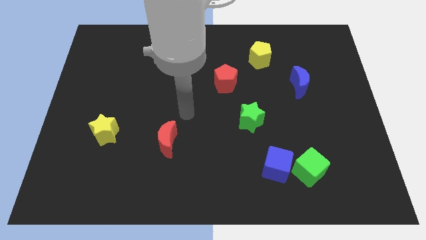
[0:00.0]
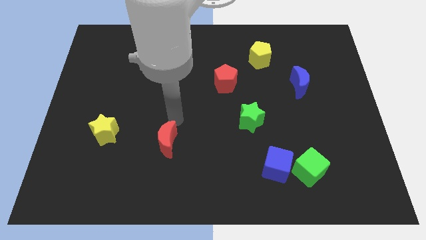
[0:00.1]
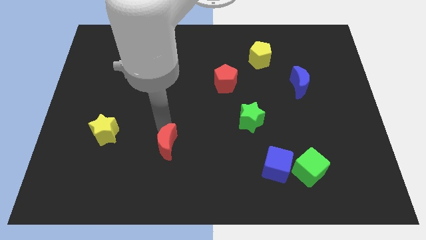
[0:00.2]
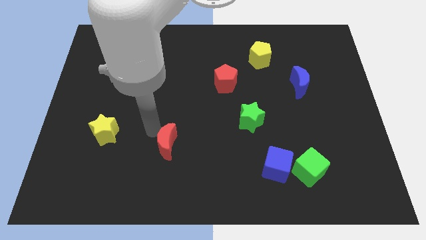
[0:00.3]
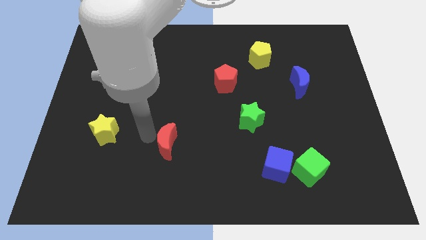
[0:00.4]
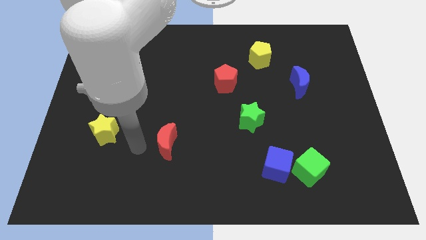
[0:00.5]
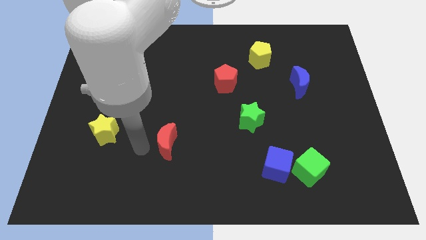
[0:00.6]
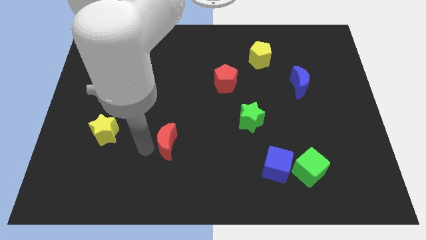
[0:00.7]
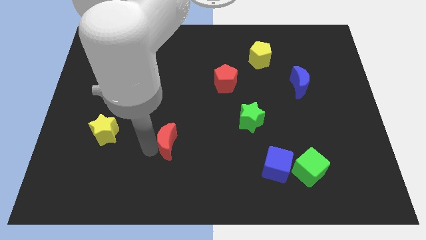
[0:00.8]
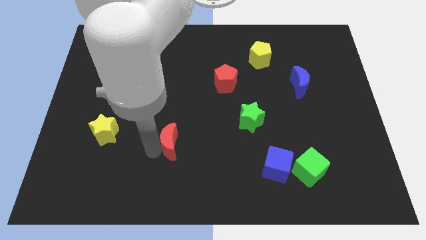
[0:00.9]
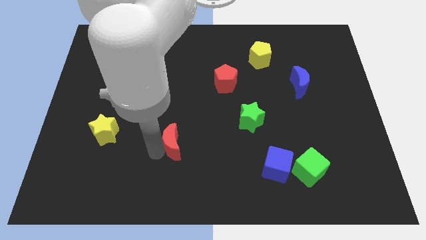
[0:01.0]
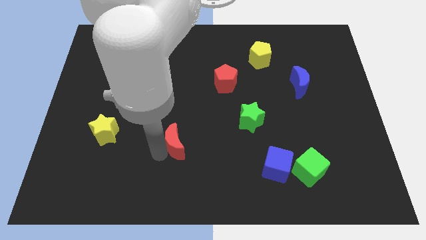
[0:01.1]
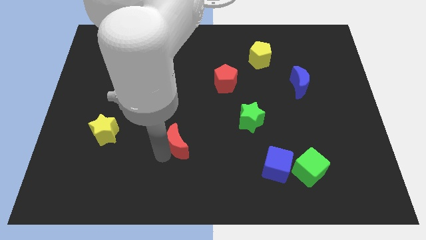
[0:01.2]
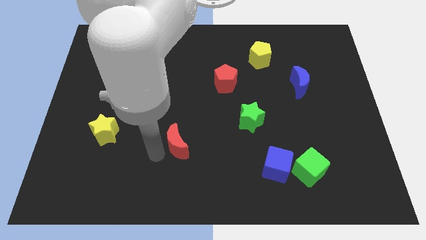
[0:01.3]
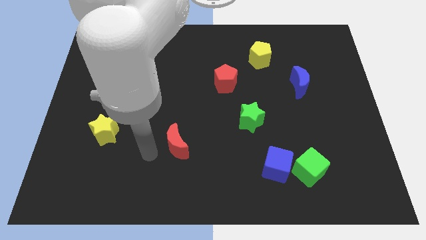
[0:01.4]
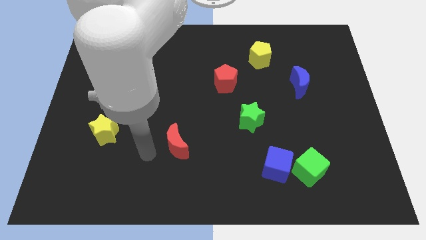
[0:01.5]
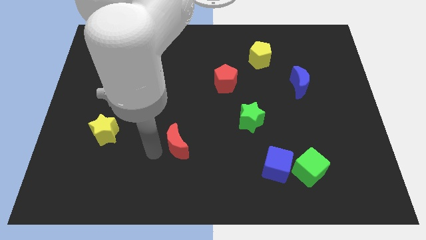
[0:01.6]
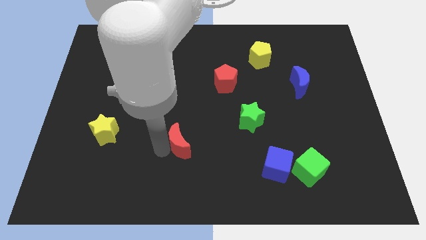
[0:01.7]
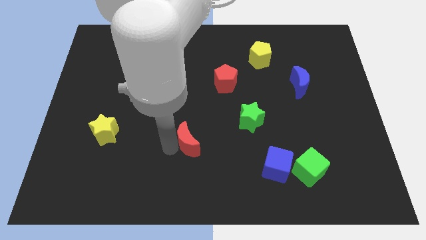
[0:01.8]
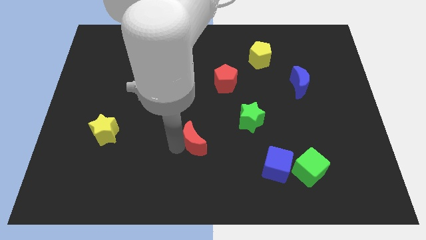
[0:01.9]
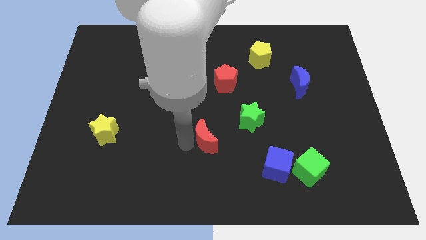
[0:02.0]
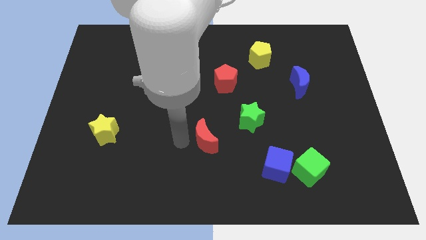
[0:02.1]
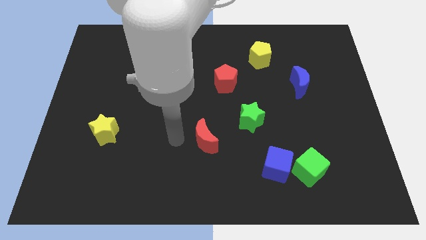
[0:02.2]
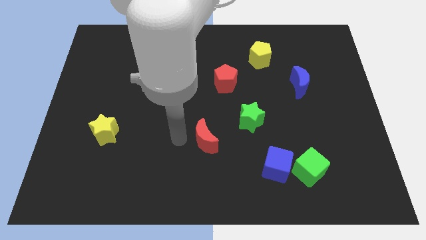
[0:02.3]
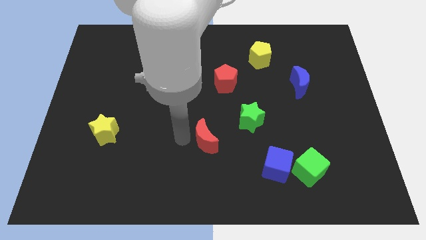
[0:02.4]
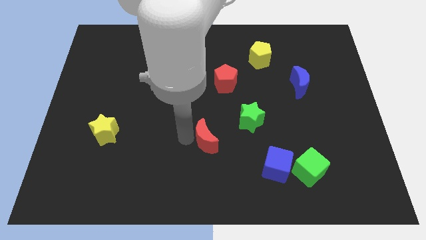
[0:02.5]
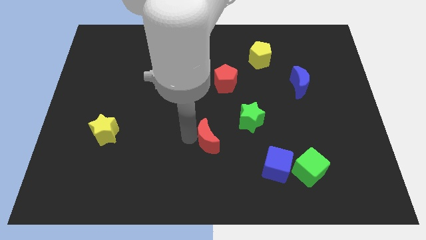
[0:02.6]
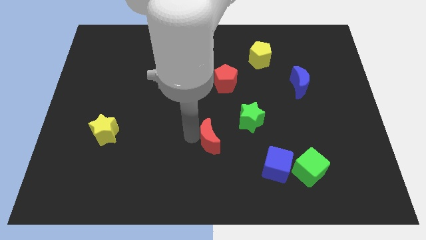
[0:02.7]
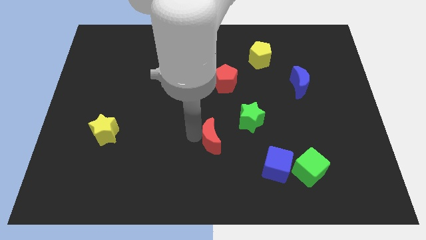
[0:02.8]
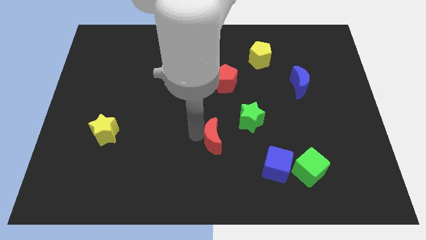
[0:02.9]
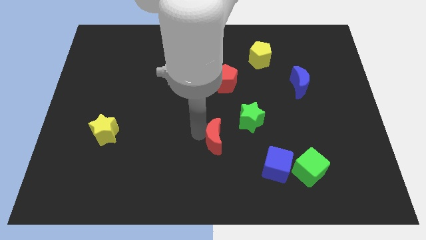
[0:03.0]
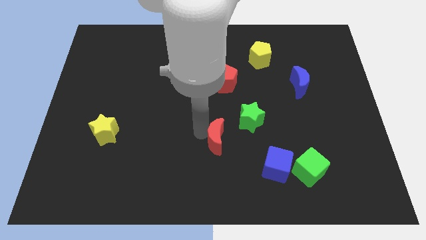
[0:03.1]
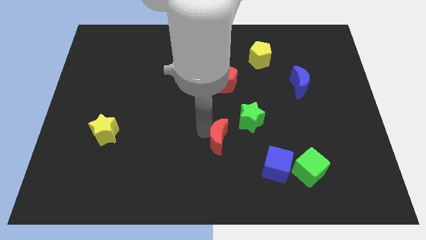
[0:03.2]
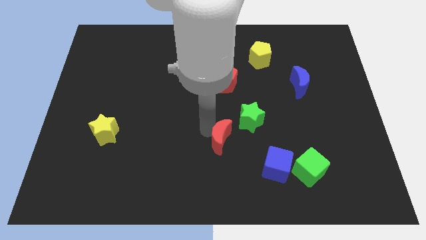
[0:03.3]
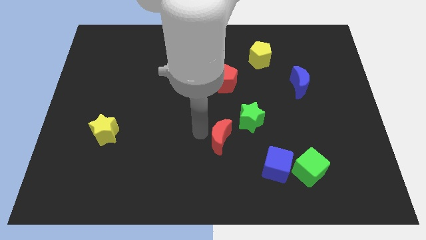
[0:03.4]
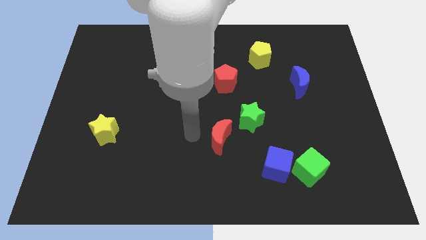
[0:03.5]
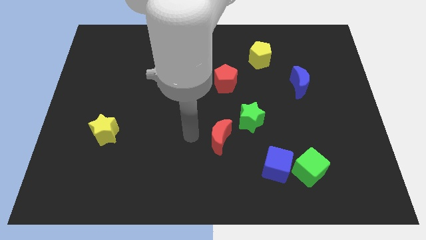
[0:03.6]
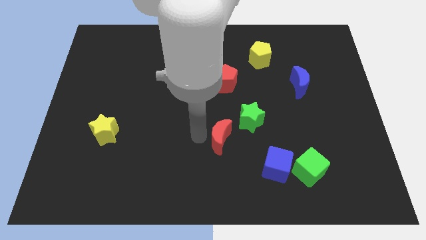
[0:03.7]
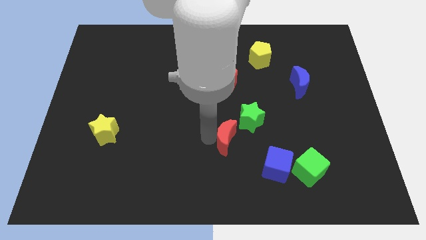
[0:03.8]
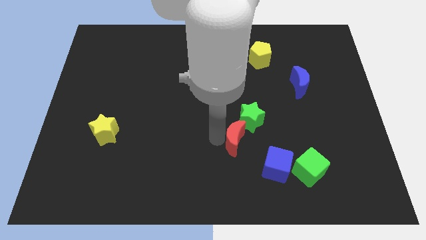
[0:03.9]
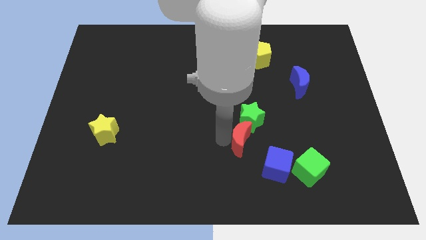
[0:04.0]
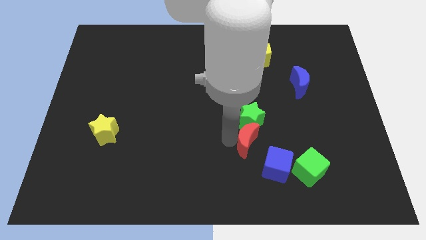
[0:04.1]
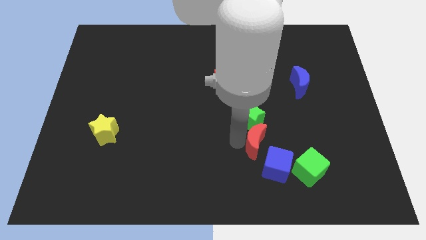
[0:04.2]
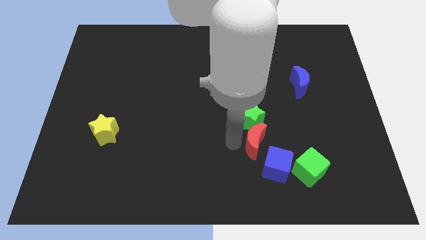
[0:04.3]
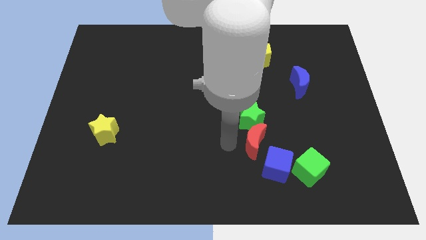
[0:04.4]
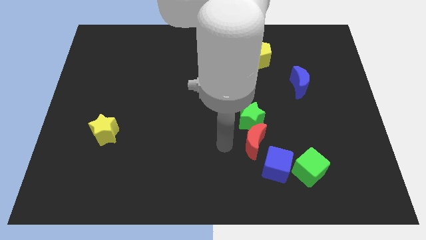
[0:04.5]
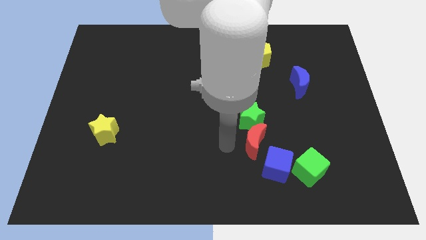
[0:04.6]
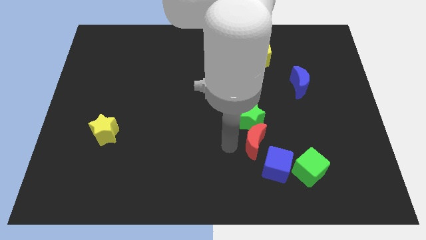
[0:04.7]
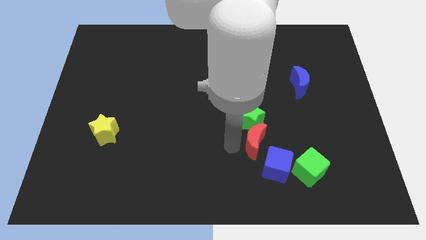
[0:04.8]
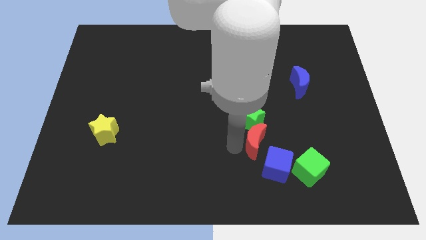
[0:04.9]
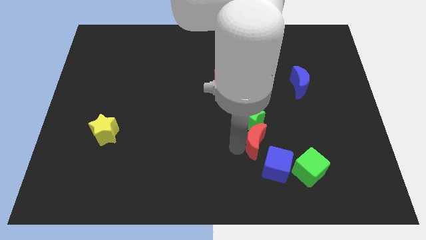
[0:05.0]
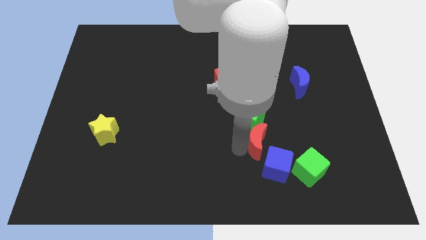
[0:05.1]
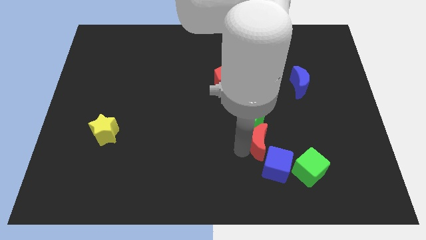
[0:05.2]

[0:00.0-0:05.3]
push the red moon right

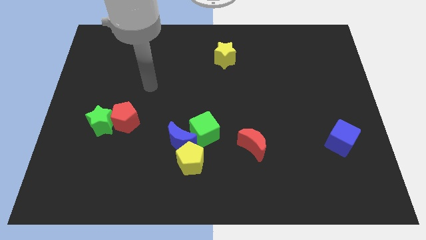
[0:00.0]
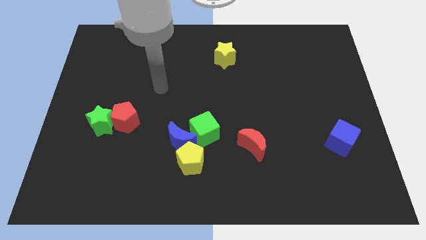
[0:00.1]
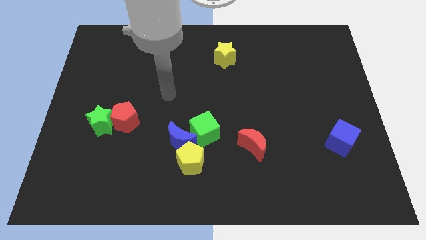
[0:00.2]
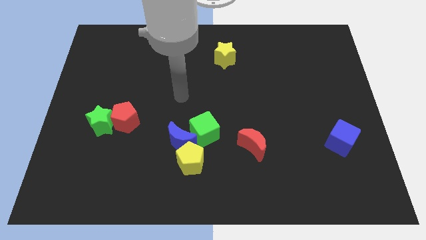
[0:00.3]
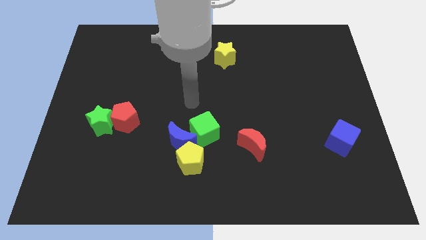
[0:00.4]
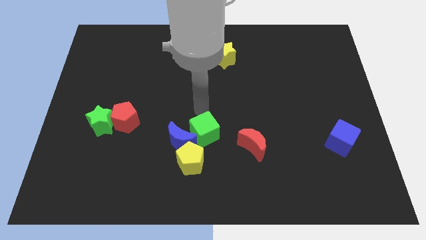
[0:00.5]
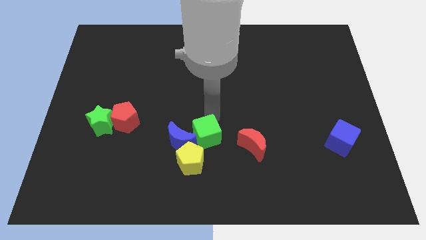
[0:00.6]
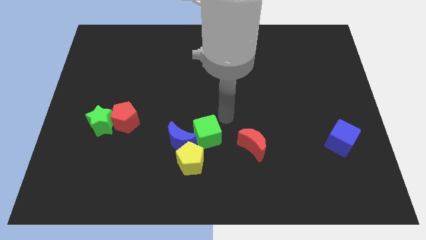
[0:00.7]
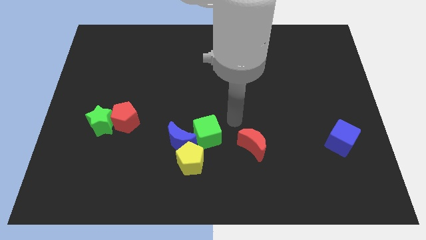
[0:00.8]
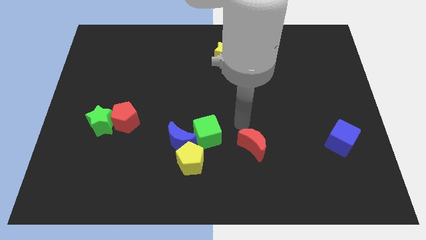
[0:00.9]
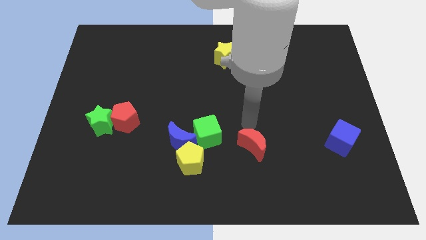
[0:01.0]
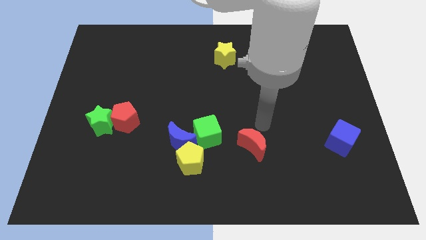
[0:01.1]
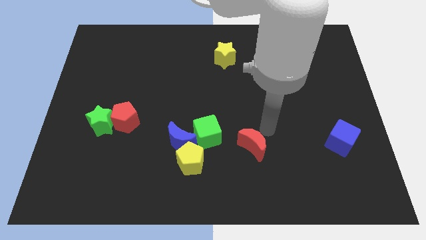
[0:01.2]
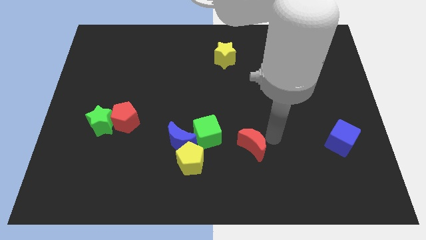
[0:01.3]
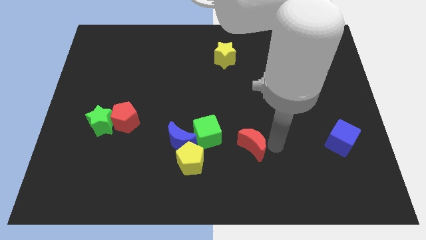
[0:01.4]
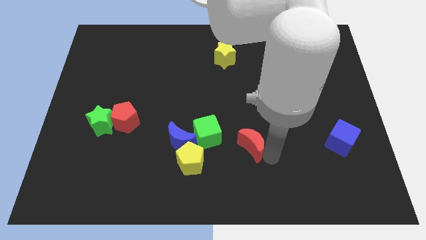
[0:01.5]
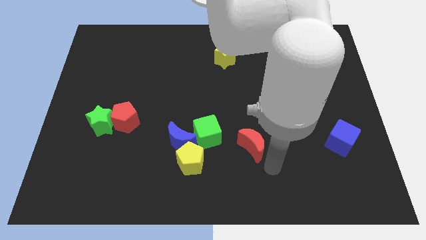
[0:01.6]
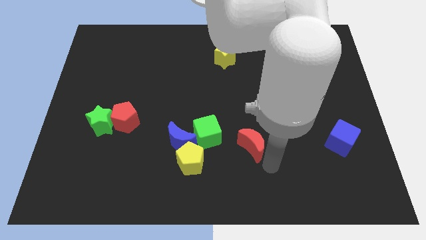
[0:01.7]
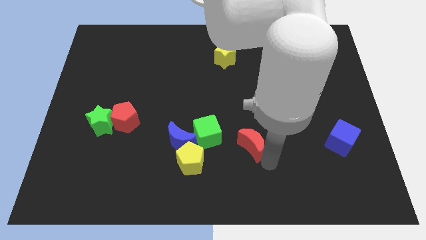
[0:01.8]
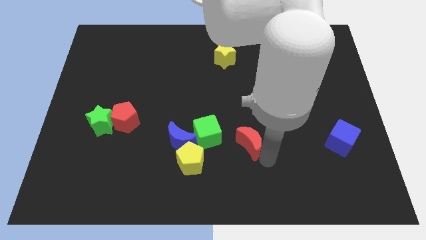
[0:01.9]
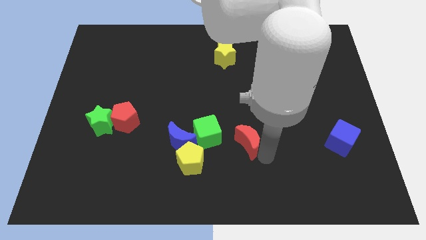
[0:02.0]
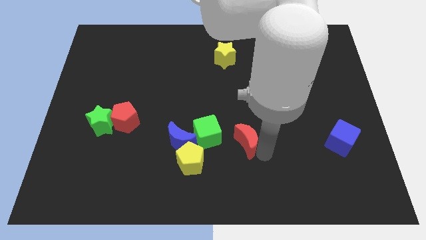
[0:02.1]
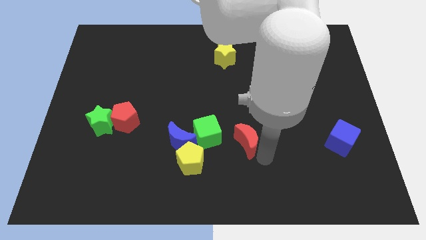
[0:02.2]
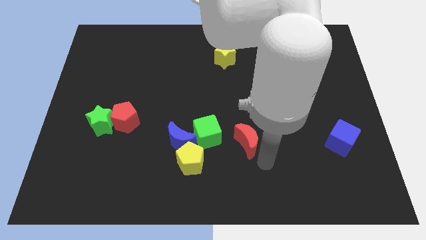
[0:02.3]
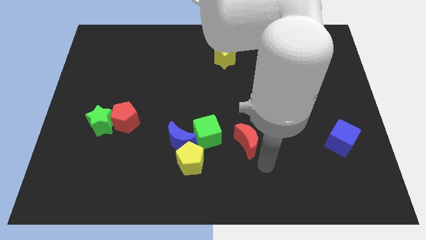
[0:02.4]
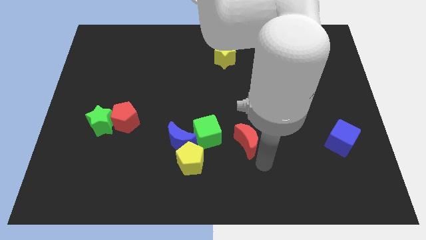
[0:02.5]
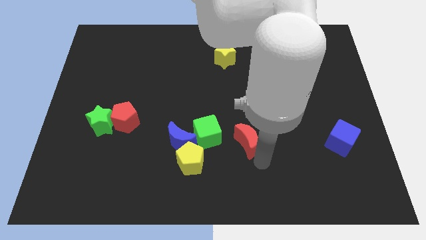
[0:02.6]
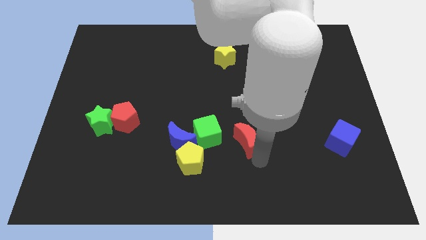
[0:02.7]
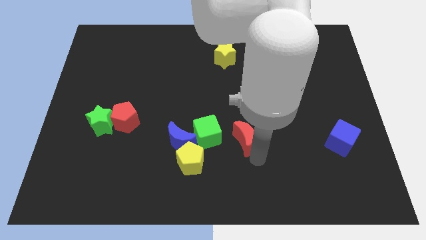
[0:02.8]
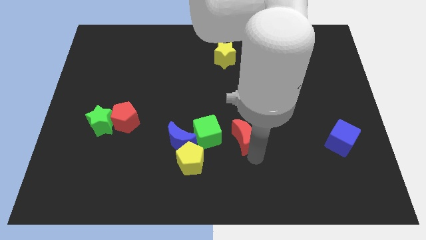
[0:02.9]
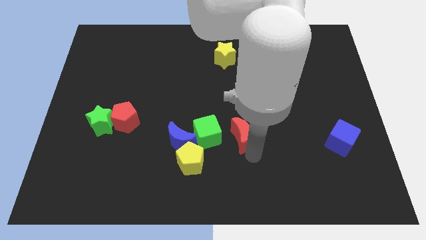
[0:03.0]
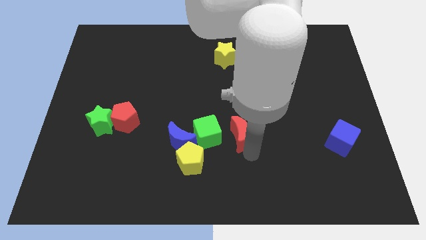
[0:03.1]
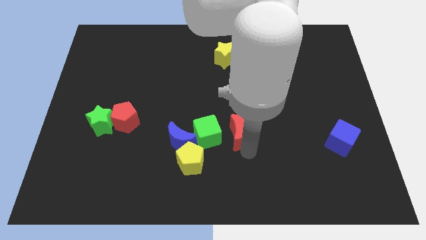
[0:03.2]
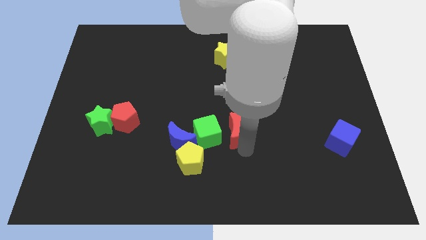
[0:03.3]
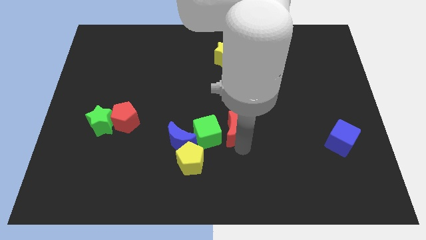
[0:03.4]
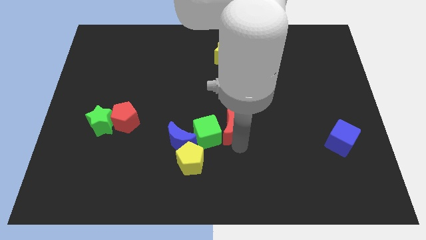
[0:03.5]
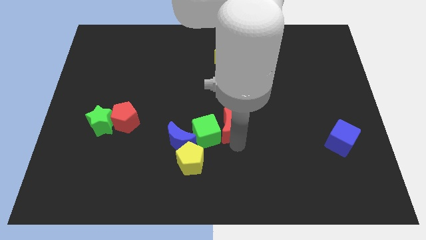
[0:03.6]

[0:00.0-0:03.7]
push the red moon diagonally up and left a little
